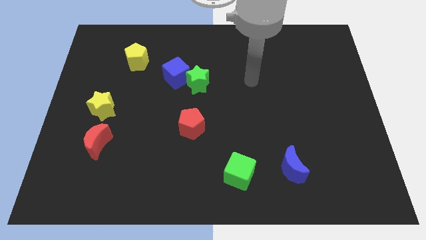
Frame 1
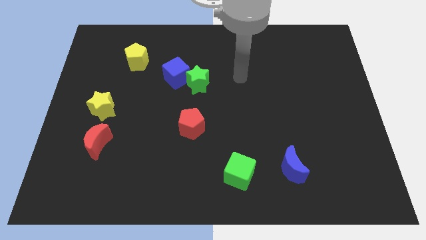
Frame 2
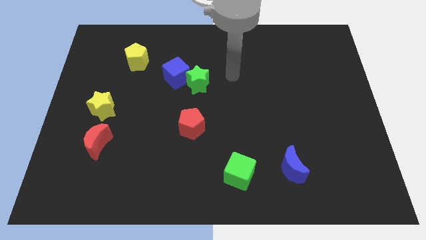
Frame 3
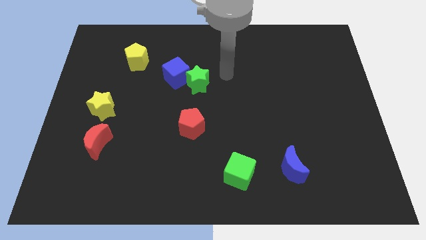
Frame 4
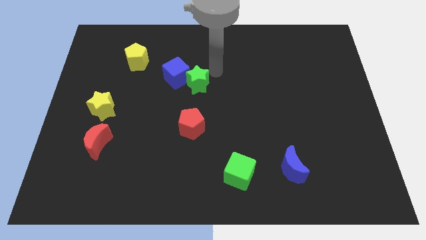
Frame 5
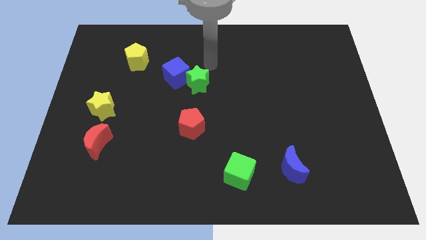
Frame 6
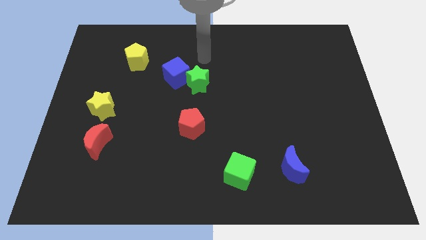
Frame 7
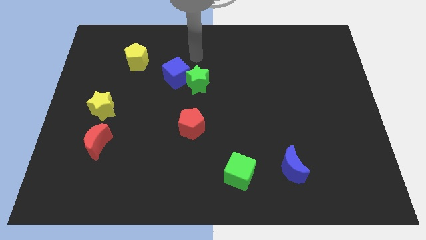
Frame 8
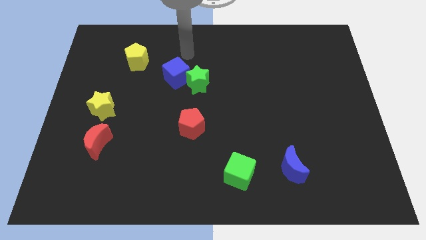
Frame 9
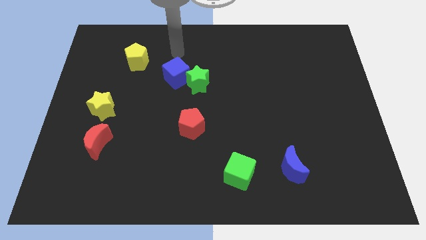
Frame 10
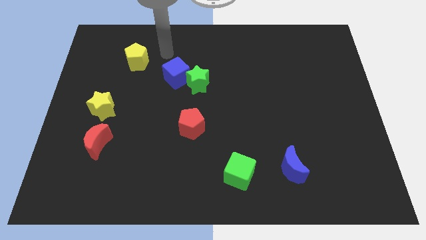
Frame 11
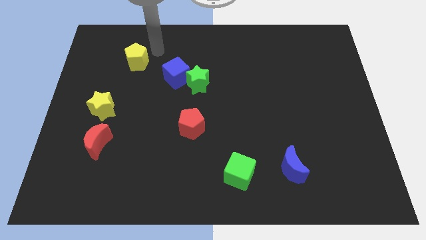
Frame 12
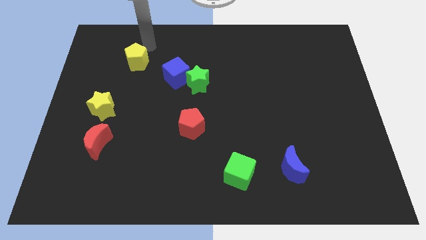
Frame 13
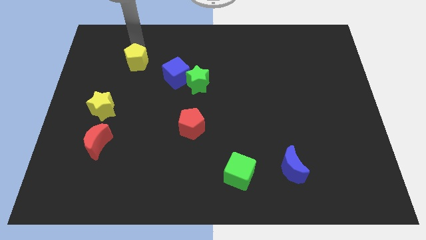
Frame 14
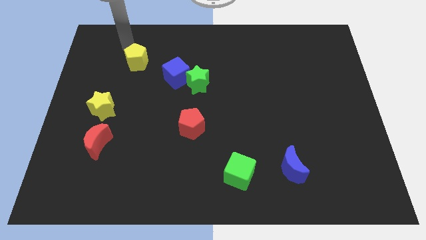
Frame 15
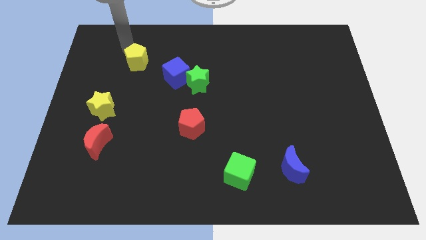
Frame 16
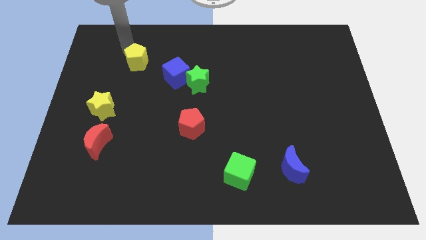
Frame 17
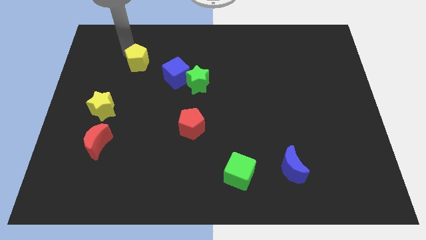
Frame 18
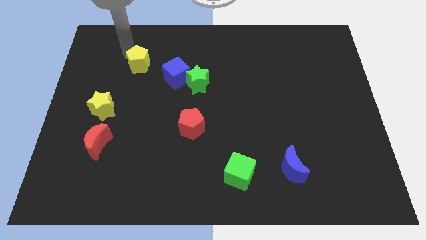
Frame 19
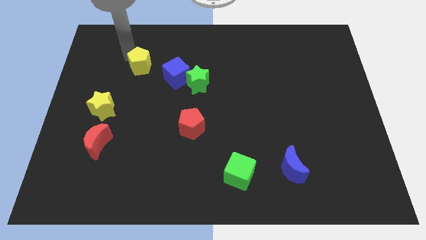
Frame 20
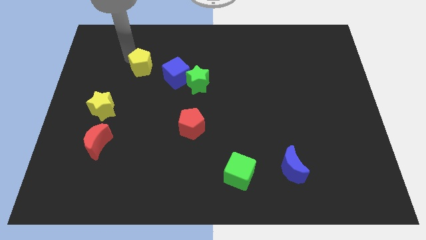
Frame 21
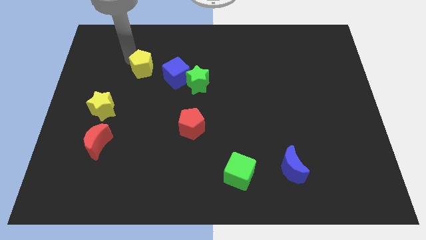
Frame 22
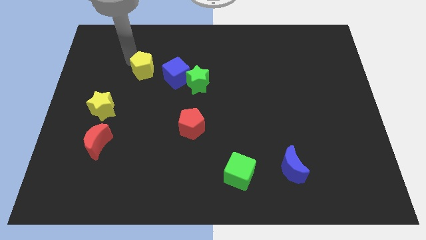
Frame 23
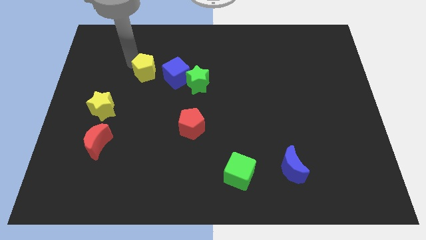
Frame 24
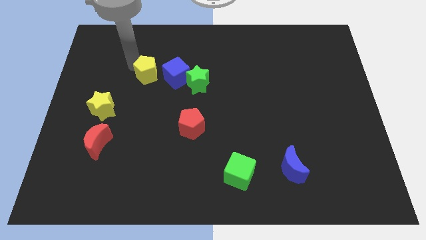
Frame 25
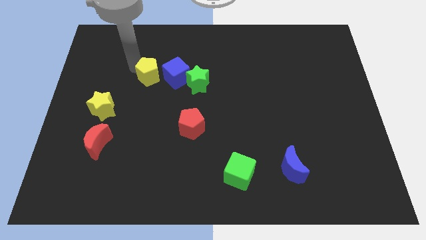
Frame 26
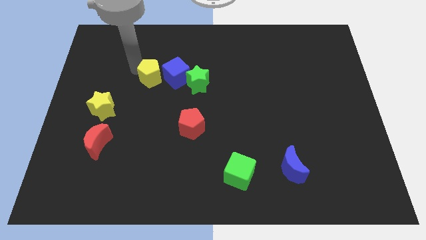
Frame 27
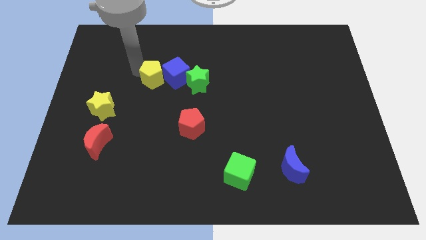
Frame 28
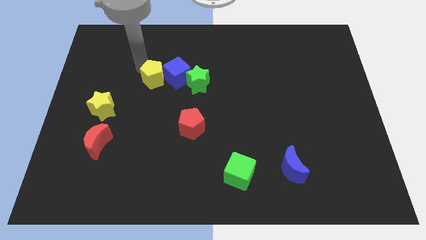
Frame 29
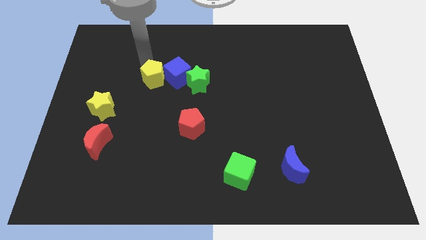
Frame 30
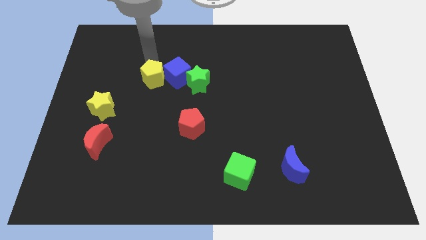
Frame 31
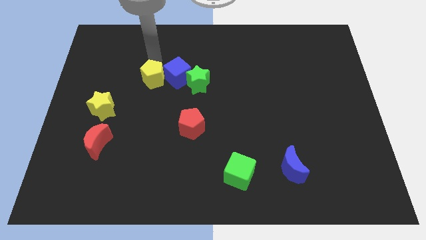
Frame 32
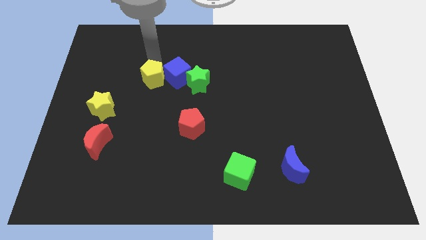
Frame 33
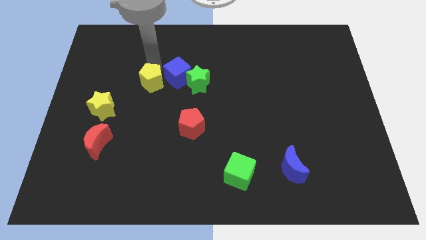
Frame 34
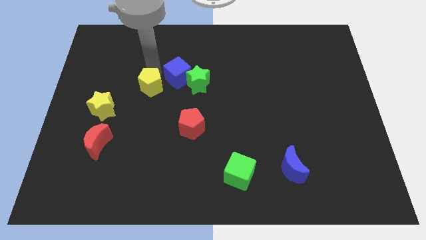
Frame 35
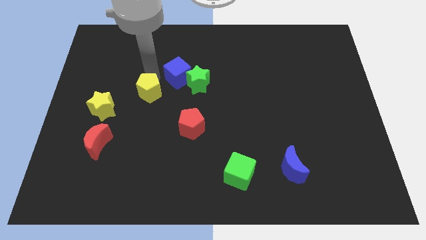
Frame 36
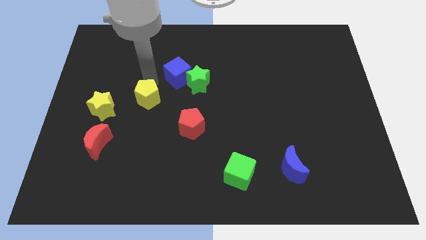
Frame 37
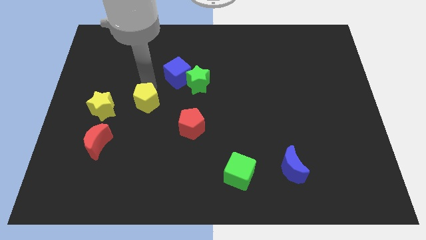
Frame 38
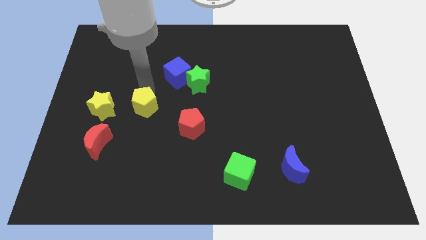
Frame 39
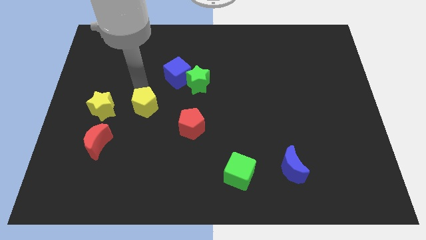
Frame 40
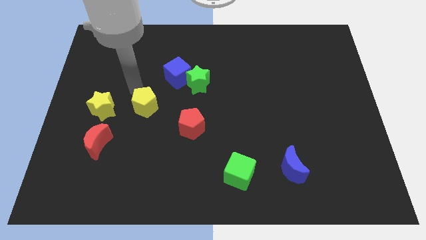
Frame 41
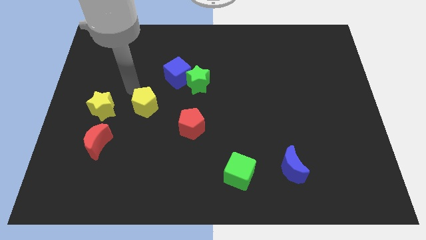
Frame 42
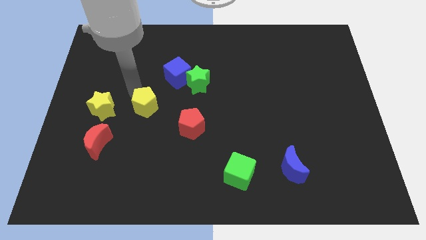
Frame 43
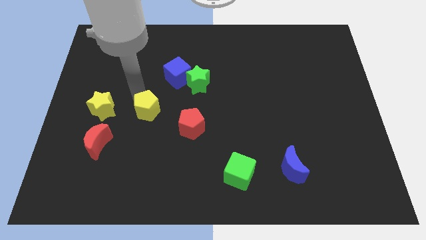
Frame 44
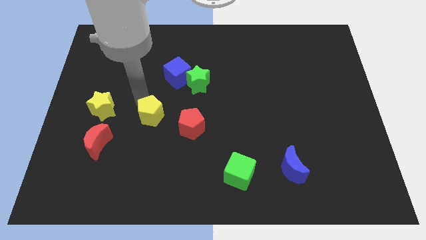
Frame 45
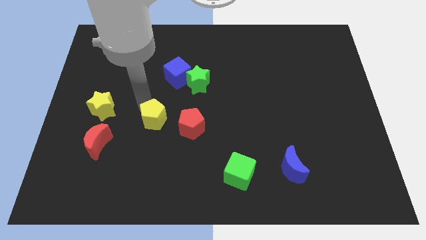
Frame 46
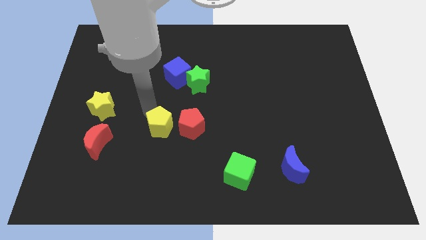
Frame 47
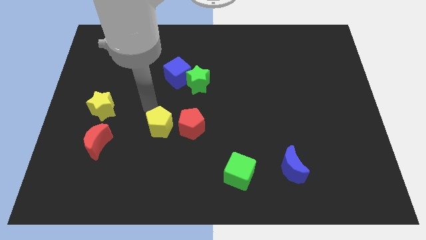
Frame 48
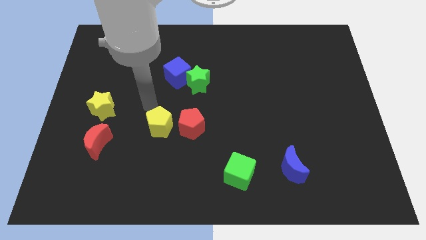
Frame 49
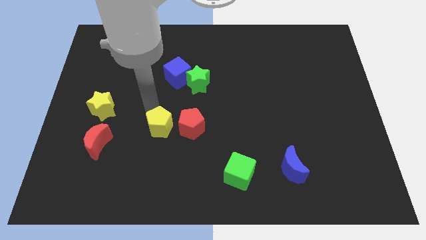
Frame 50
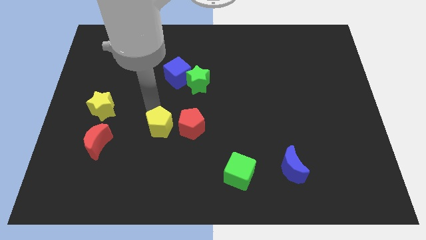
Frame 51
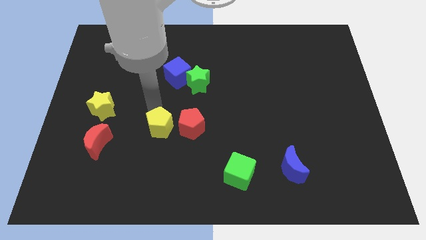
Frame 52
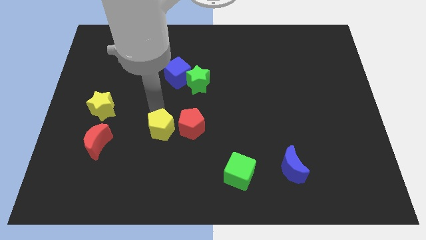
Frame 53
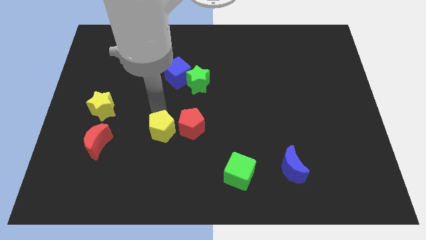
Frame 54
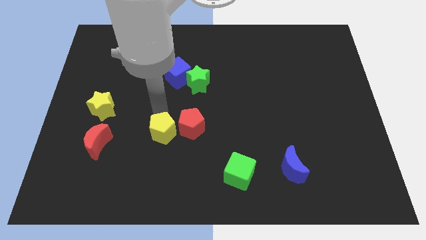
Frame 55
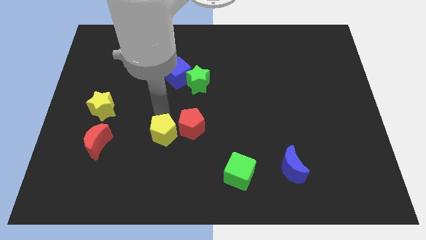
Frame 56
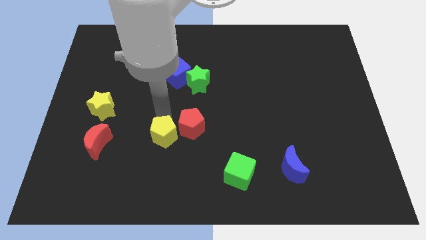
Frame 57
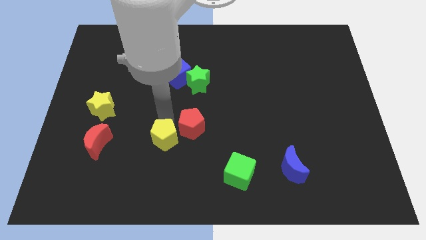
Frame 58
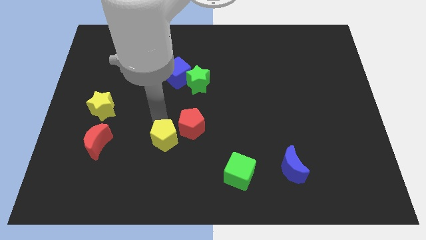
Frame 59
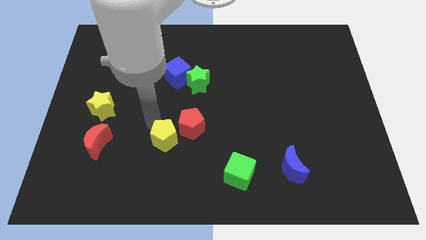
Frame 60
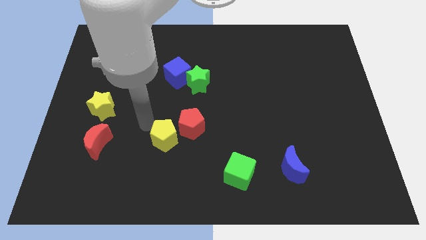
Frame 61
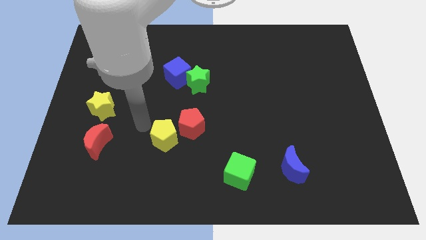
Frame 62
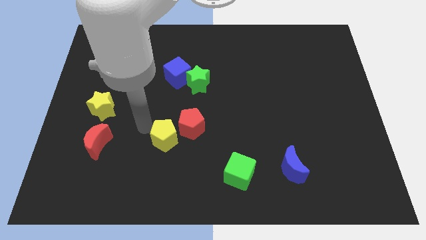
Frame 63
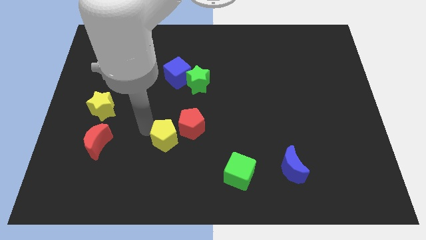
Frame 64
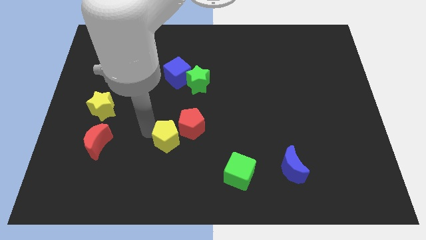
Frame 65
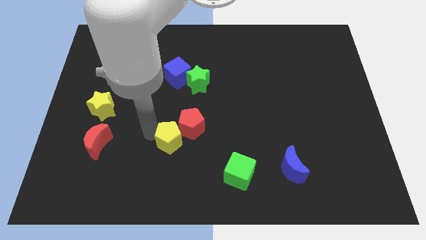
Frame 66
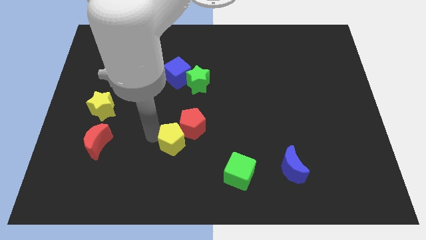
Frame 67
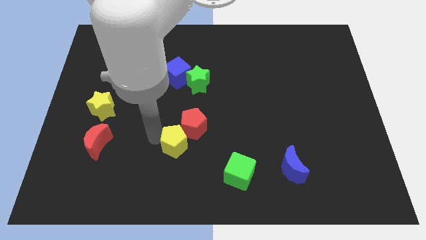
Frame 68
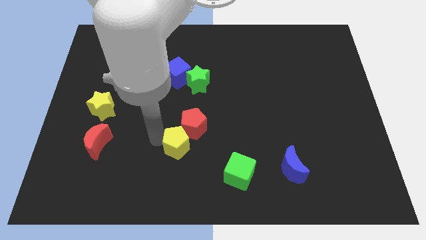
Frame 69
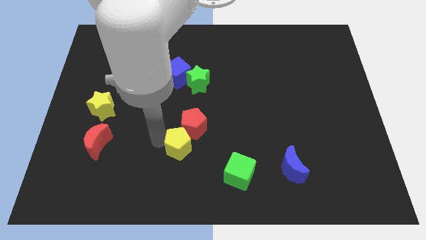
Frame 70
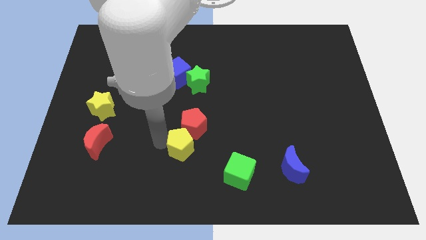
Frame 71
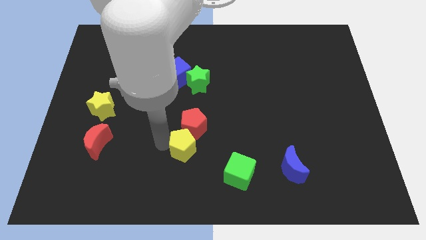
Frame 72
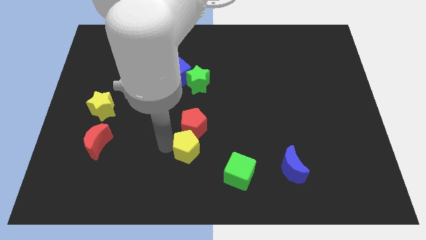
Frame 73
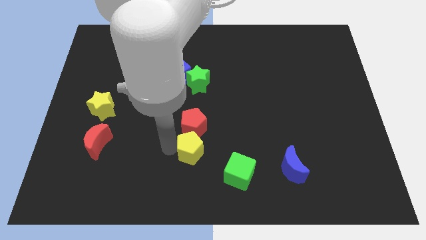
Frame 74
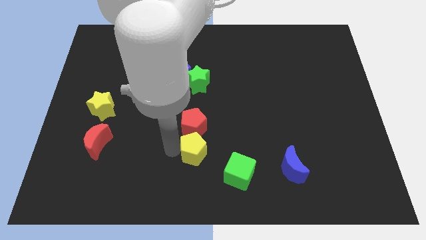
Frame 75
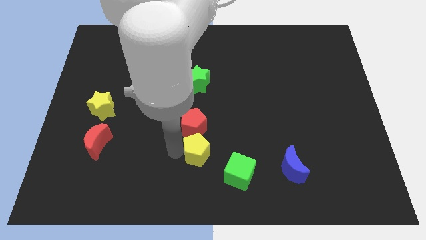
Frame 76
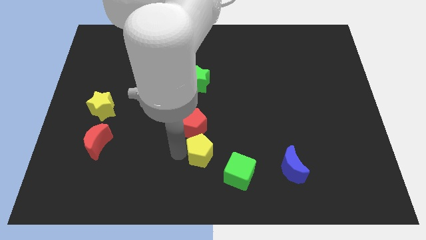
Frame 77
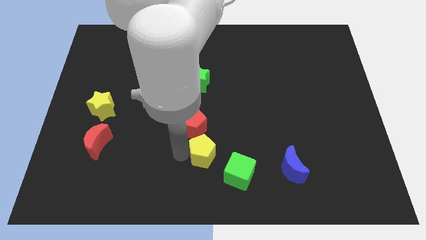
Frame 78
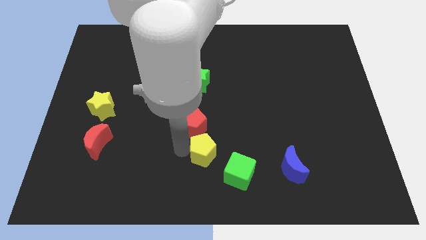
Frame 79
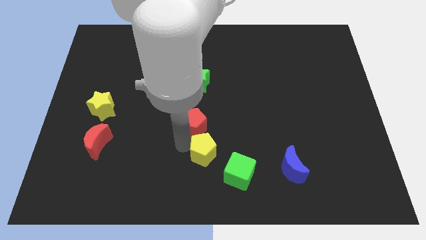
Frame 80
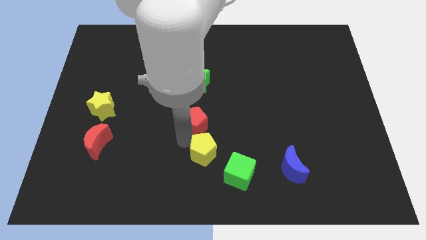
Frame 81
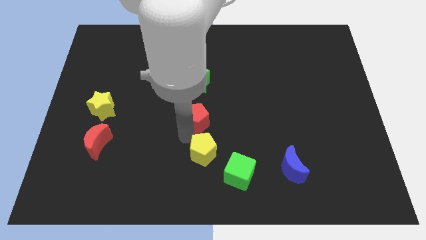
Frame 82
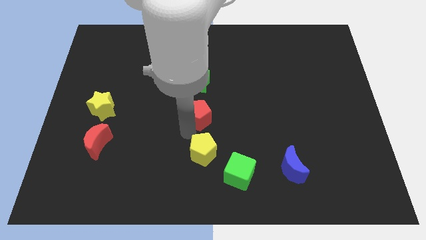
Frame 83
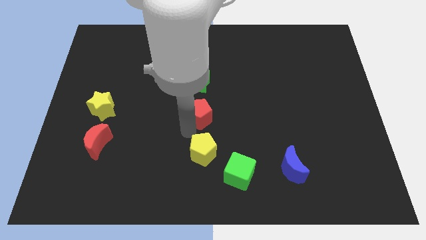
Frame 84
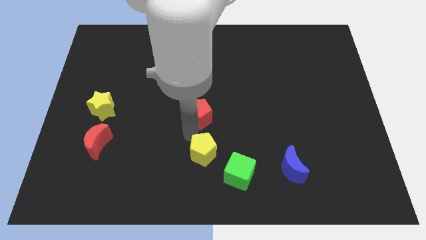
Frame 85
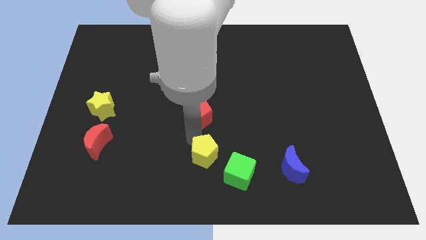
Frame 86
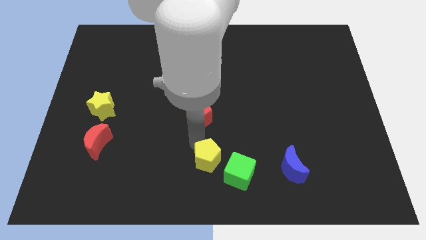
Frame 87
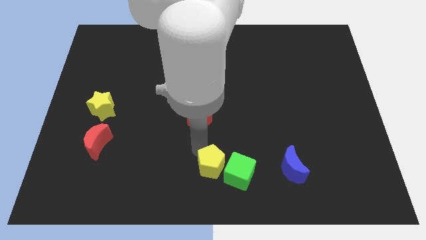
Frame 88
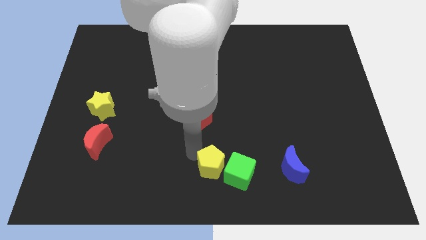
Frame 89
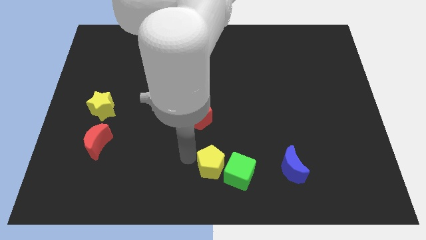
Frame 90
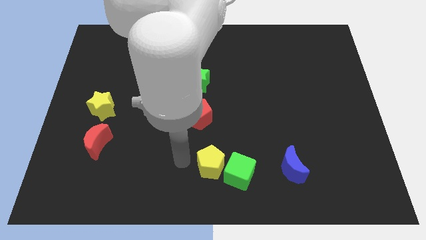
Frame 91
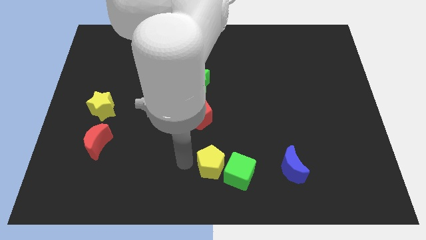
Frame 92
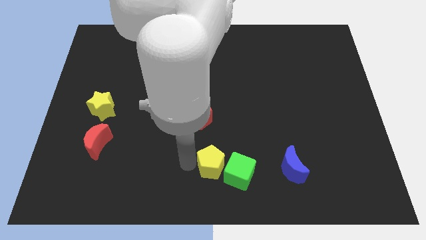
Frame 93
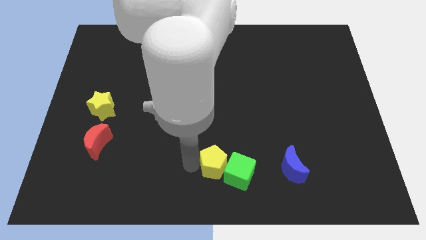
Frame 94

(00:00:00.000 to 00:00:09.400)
move the yellow pentagon to the left side of the blue moon
